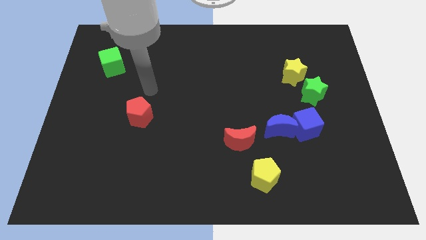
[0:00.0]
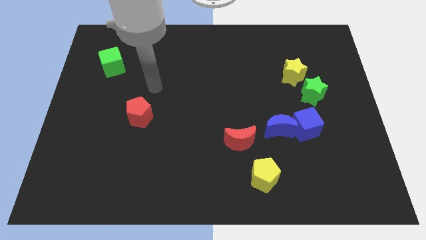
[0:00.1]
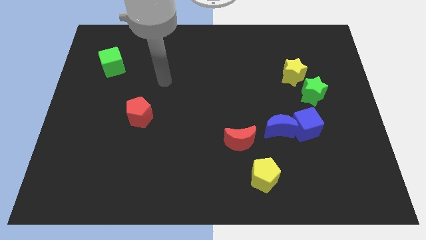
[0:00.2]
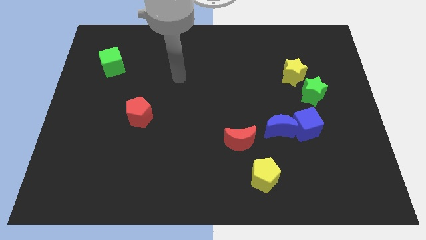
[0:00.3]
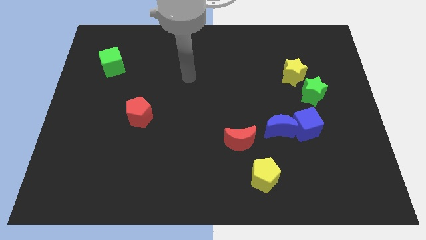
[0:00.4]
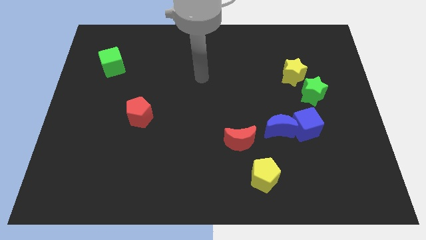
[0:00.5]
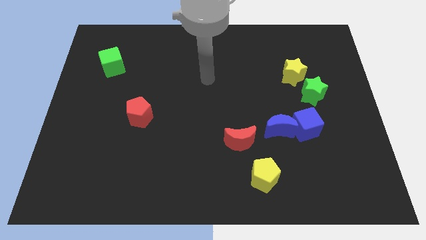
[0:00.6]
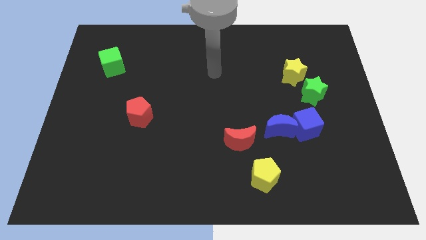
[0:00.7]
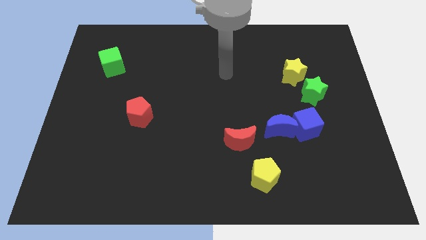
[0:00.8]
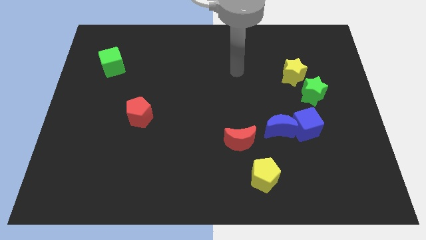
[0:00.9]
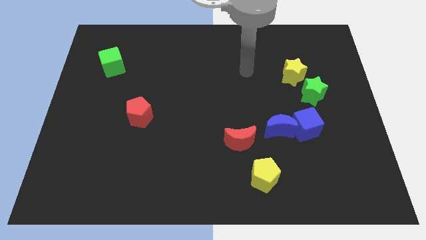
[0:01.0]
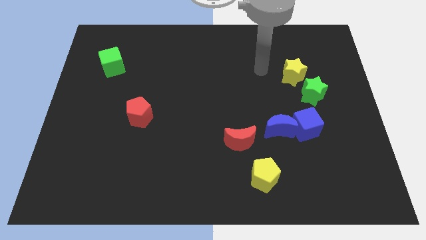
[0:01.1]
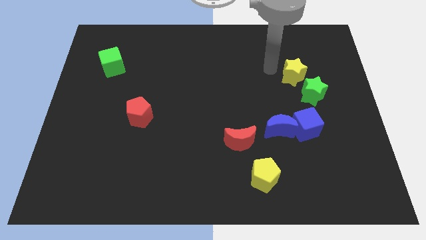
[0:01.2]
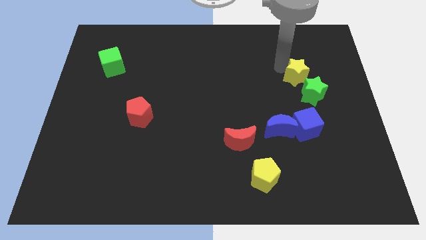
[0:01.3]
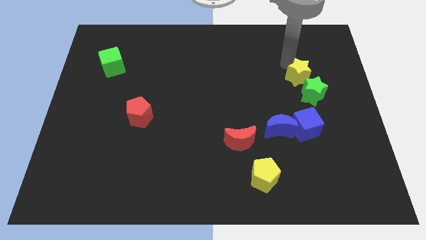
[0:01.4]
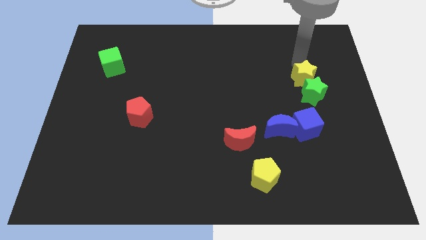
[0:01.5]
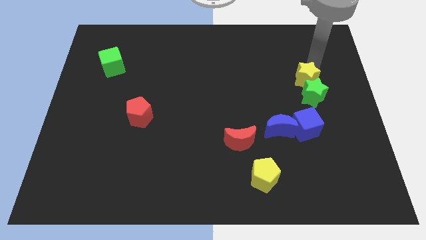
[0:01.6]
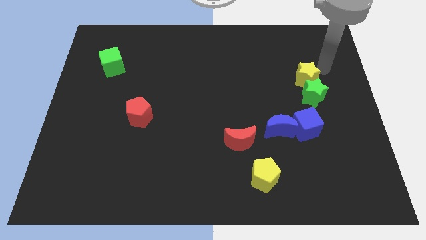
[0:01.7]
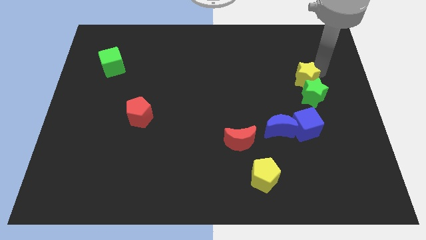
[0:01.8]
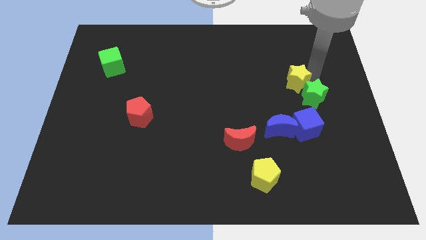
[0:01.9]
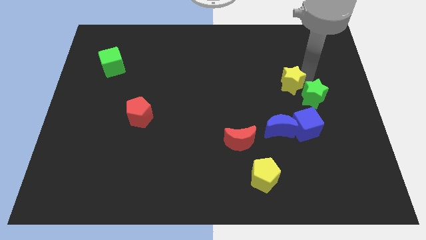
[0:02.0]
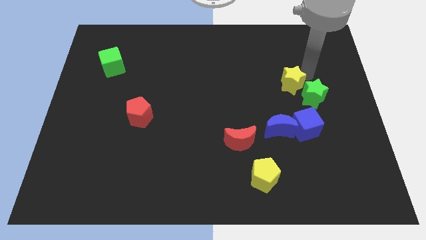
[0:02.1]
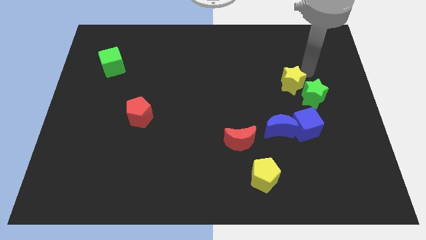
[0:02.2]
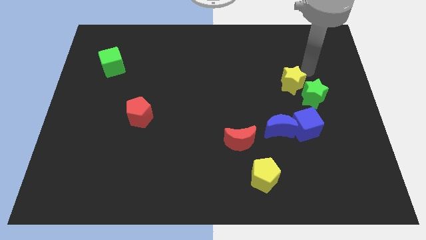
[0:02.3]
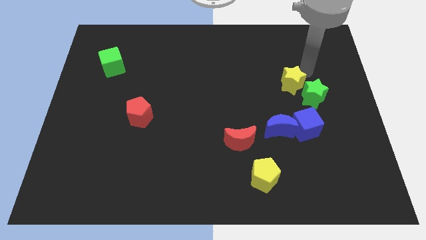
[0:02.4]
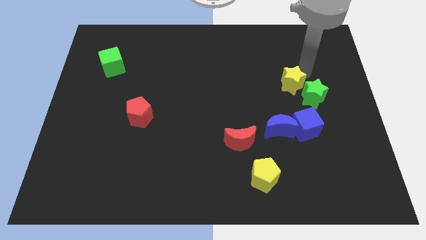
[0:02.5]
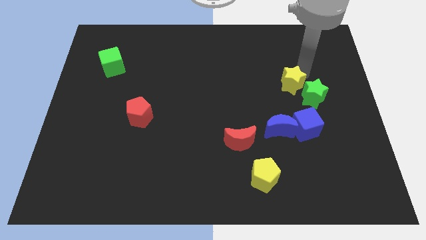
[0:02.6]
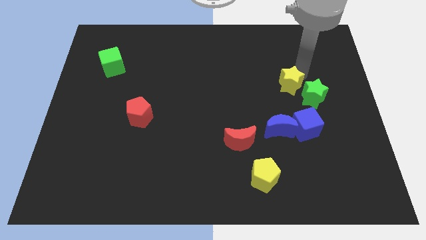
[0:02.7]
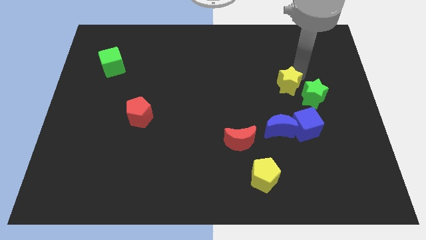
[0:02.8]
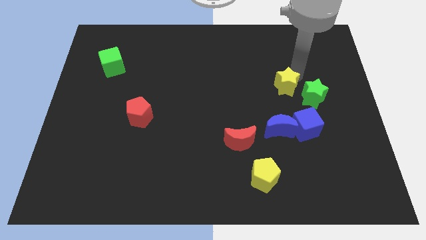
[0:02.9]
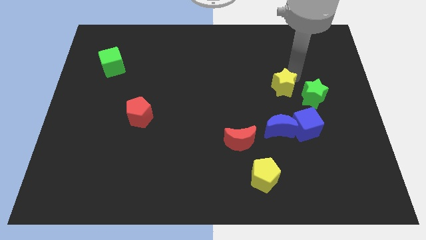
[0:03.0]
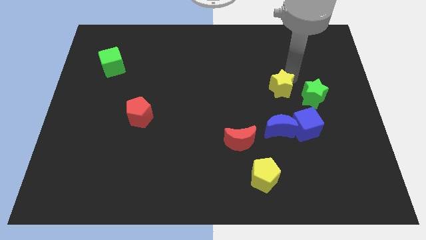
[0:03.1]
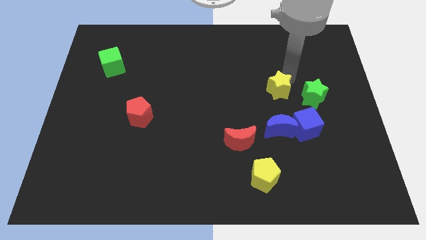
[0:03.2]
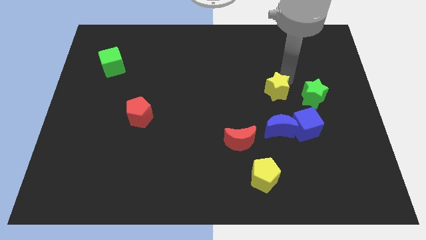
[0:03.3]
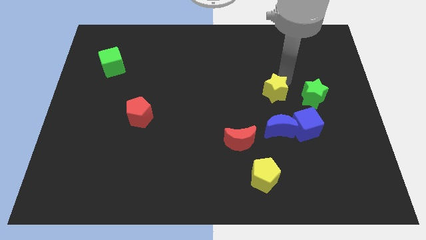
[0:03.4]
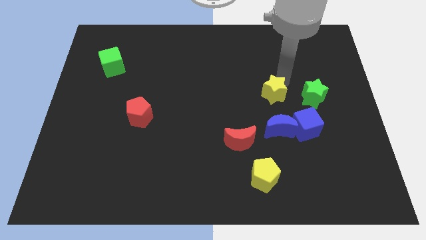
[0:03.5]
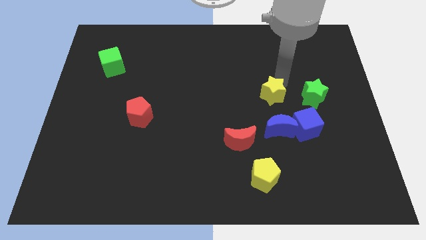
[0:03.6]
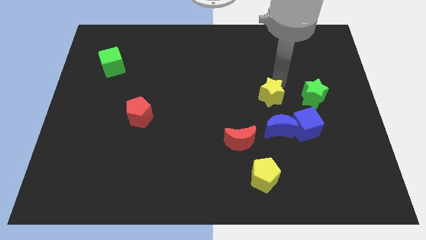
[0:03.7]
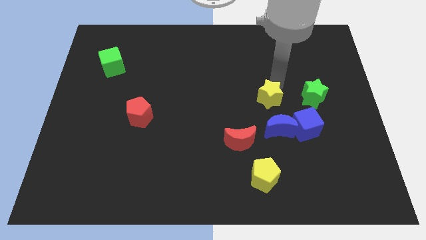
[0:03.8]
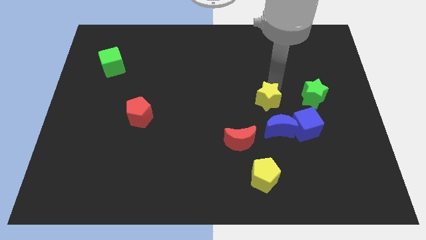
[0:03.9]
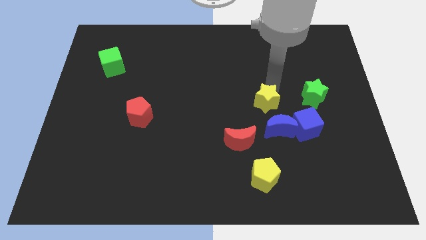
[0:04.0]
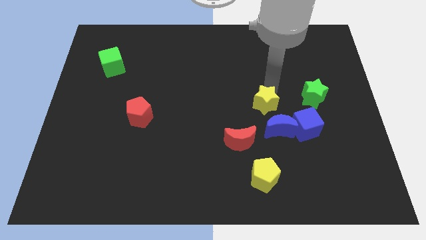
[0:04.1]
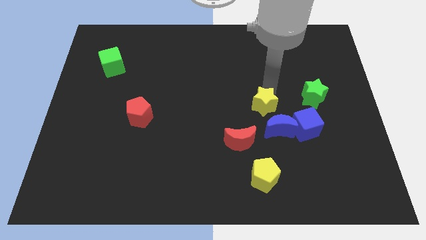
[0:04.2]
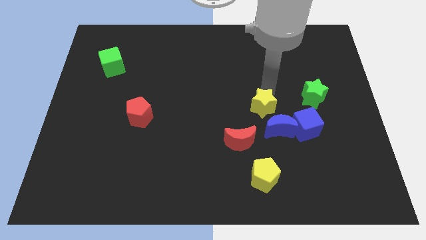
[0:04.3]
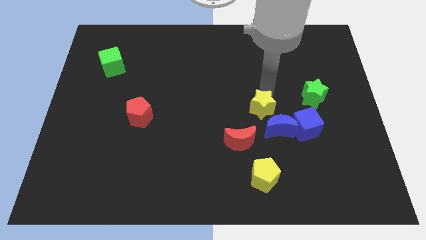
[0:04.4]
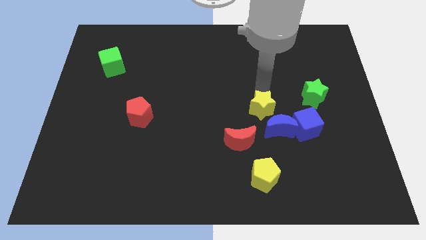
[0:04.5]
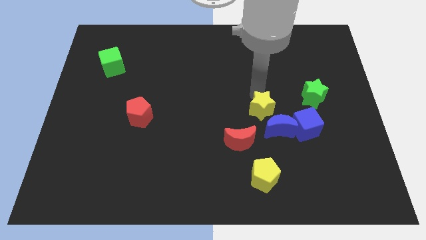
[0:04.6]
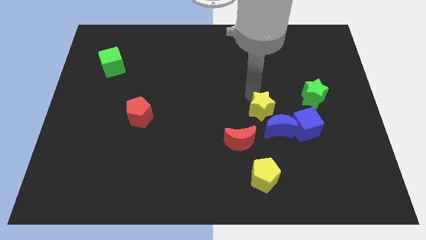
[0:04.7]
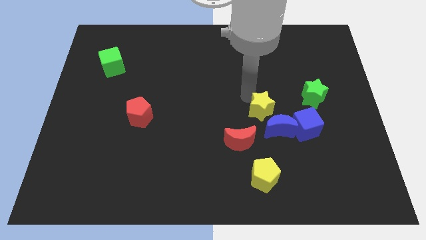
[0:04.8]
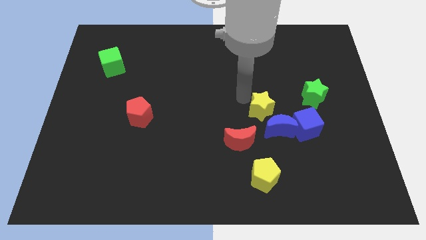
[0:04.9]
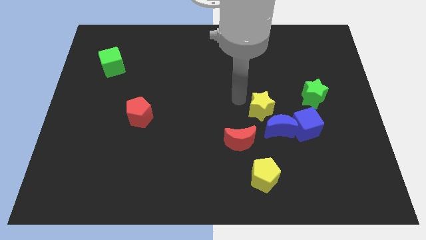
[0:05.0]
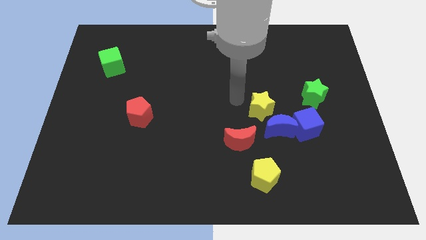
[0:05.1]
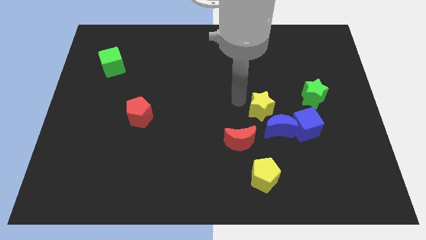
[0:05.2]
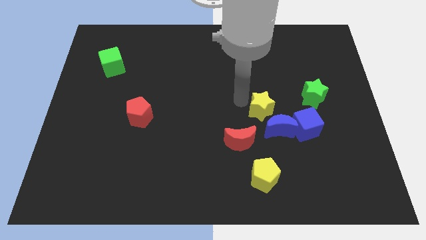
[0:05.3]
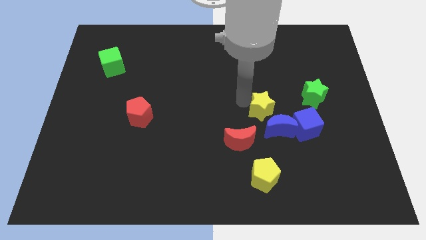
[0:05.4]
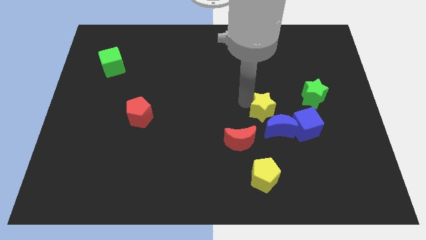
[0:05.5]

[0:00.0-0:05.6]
push the yellow star to the blue moon

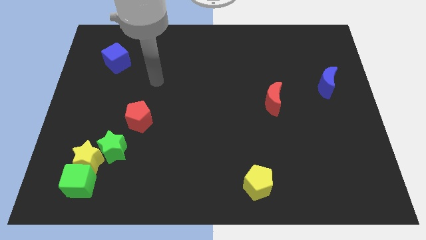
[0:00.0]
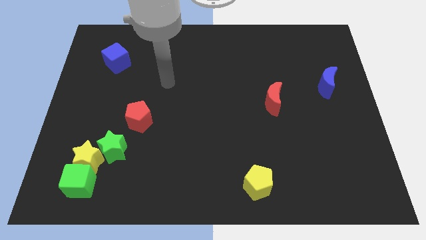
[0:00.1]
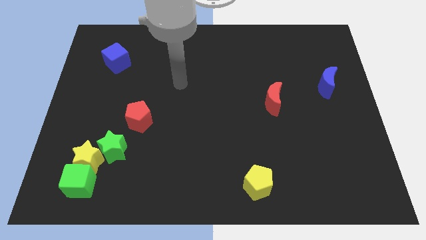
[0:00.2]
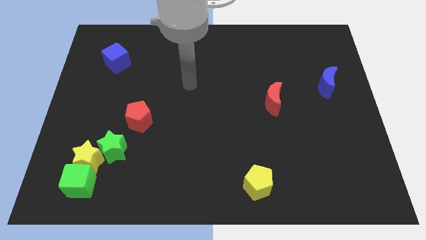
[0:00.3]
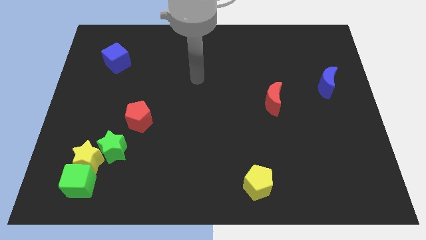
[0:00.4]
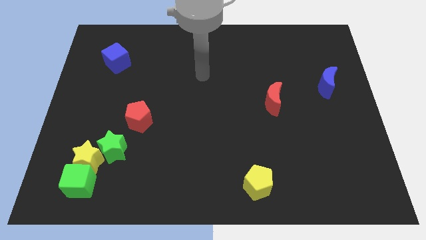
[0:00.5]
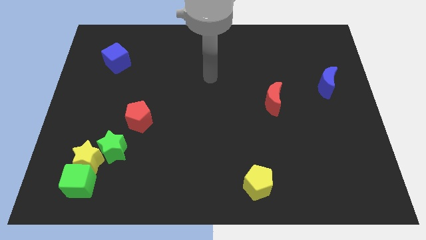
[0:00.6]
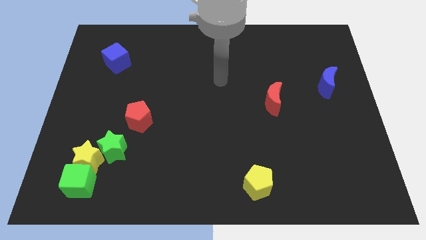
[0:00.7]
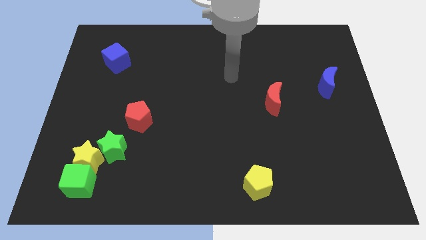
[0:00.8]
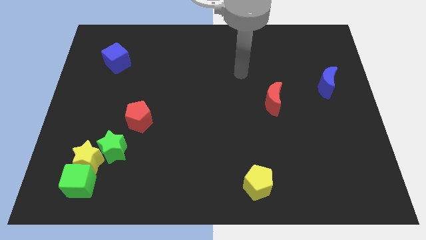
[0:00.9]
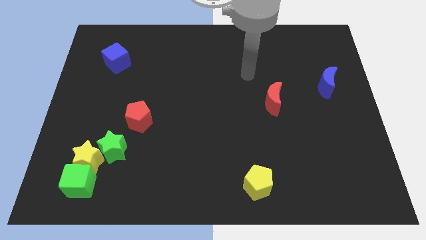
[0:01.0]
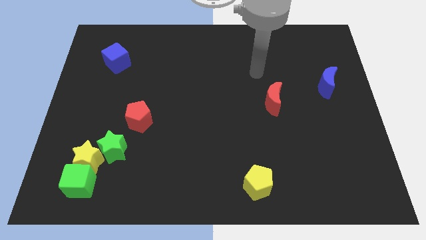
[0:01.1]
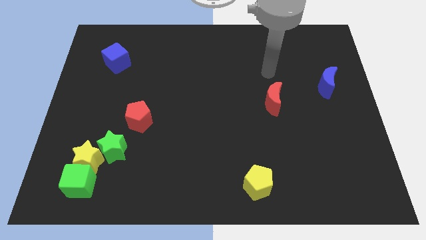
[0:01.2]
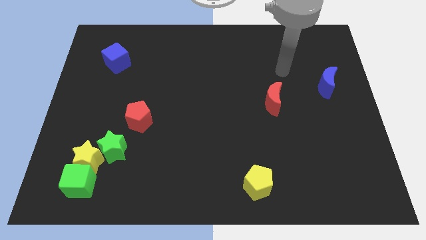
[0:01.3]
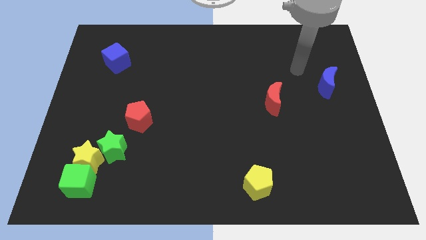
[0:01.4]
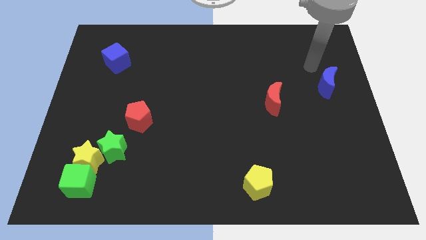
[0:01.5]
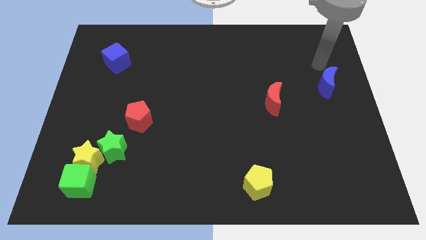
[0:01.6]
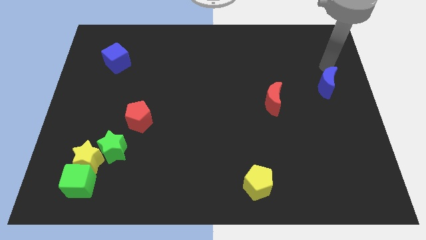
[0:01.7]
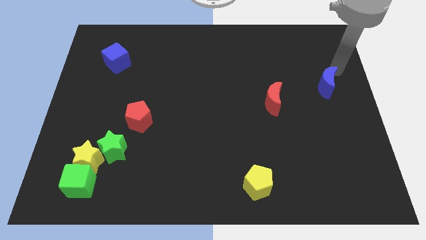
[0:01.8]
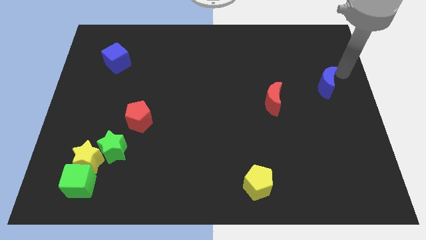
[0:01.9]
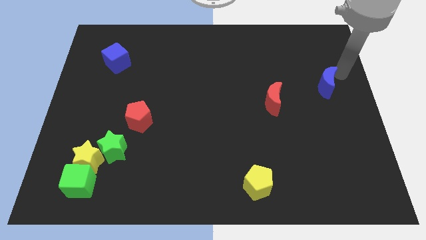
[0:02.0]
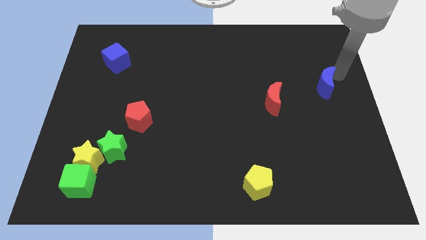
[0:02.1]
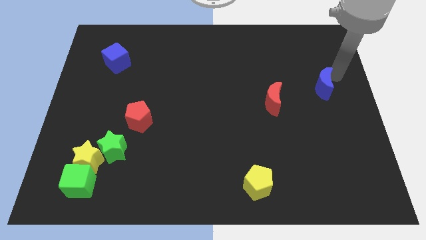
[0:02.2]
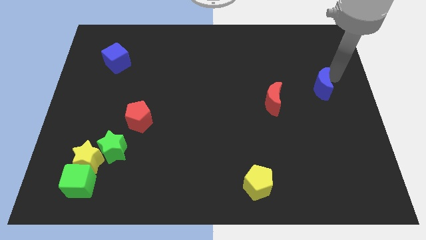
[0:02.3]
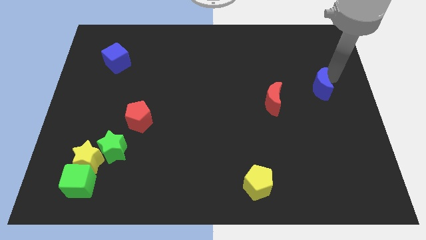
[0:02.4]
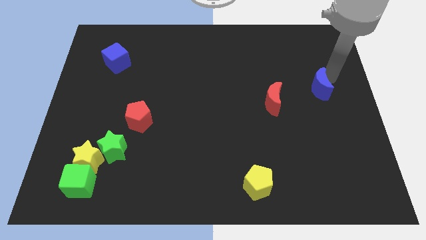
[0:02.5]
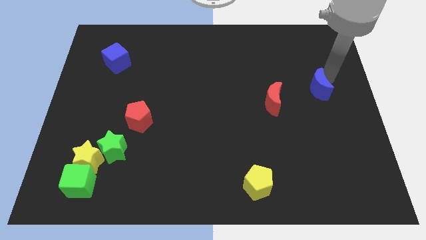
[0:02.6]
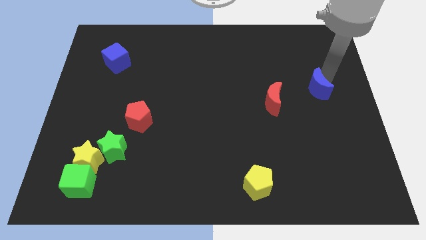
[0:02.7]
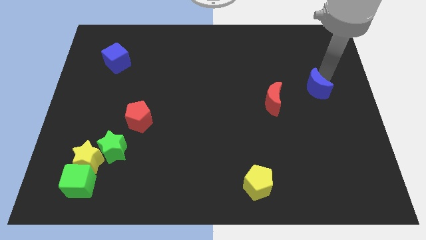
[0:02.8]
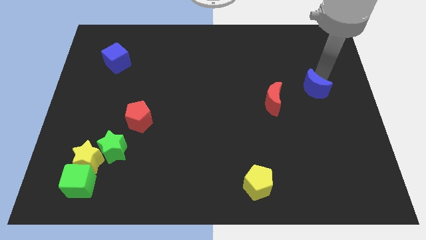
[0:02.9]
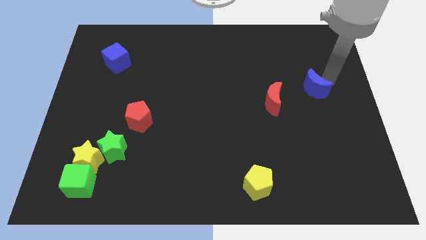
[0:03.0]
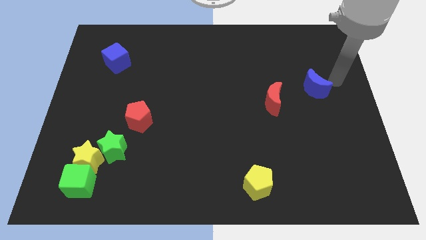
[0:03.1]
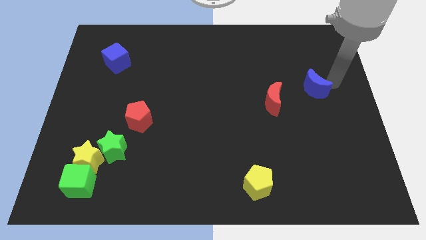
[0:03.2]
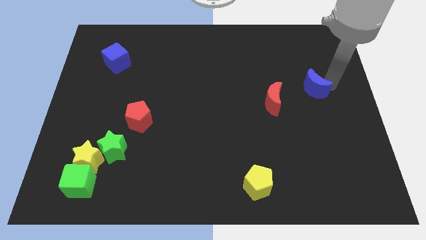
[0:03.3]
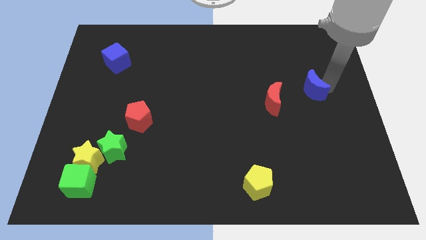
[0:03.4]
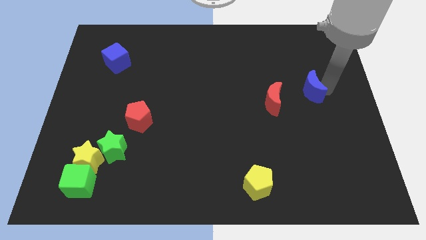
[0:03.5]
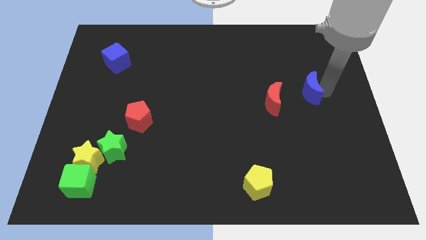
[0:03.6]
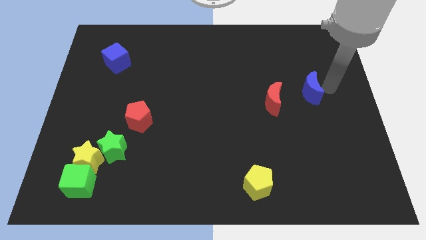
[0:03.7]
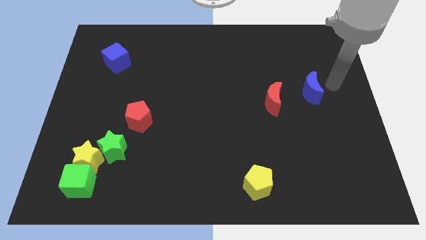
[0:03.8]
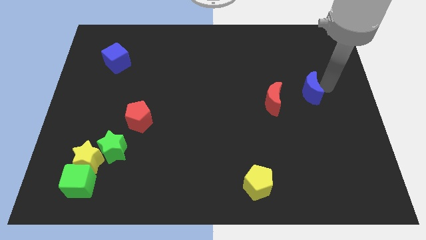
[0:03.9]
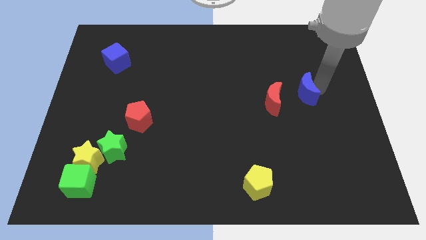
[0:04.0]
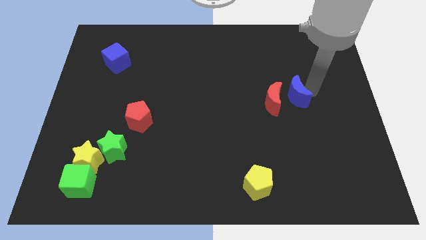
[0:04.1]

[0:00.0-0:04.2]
move the blue moon to the red moon
